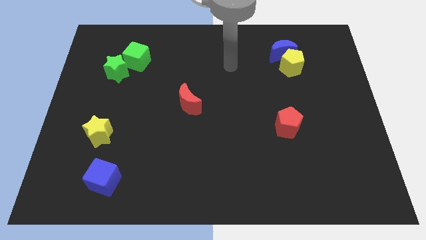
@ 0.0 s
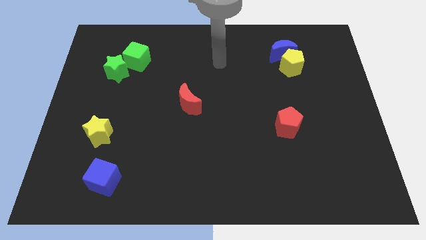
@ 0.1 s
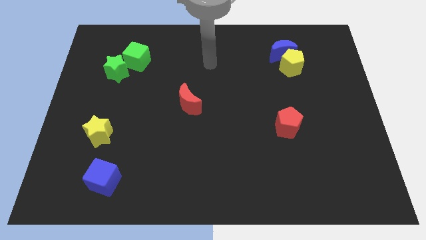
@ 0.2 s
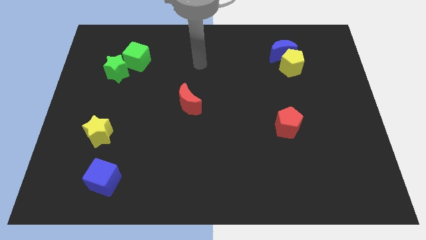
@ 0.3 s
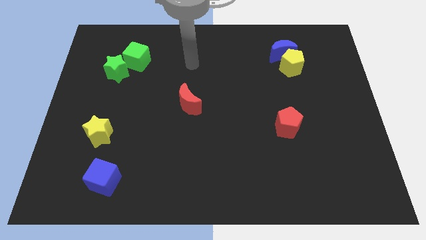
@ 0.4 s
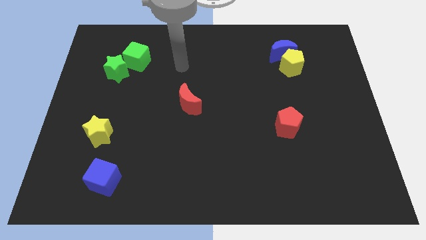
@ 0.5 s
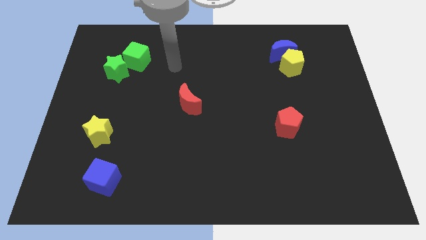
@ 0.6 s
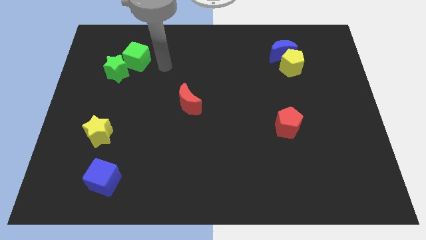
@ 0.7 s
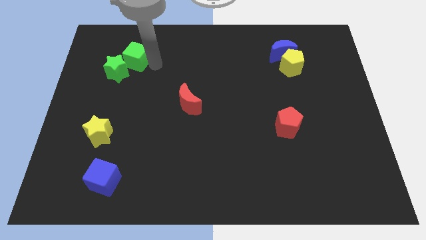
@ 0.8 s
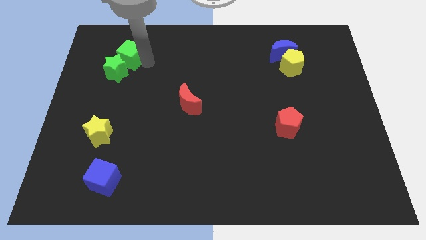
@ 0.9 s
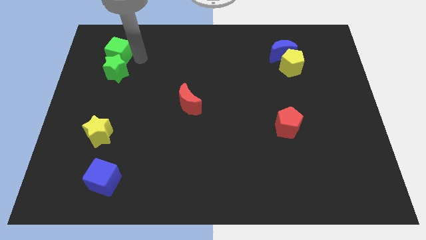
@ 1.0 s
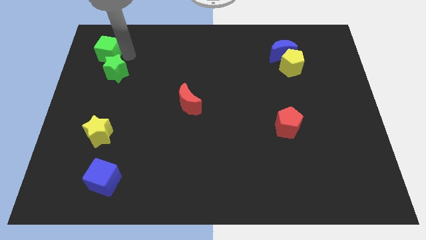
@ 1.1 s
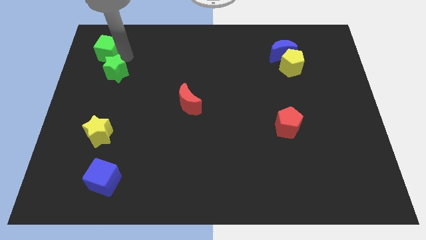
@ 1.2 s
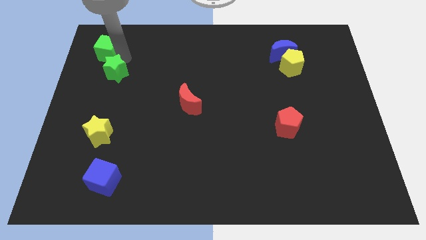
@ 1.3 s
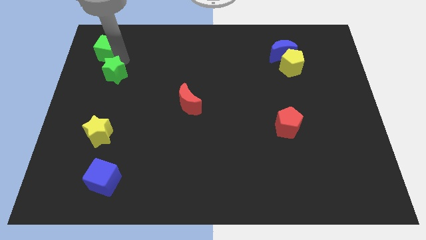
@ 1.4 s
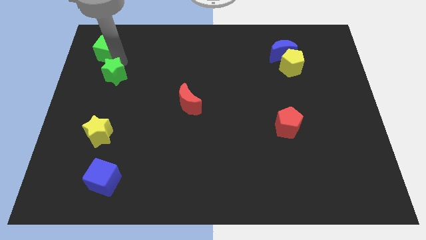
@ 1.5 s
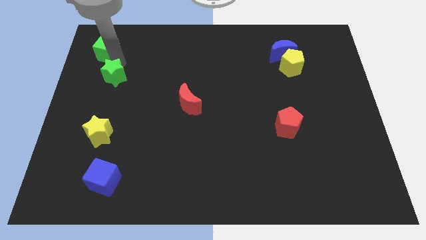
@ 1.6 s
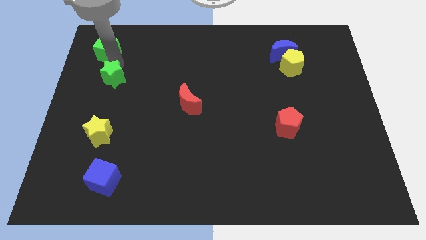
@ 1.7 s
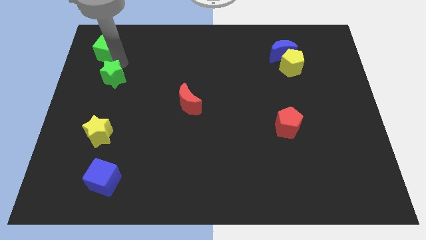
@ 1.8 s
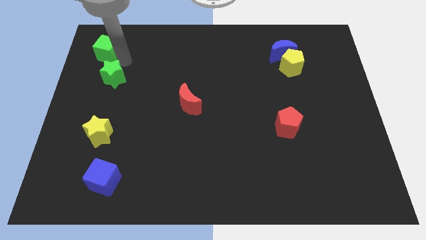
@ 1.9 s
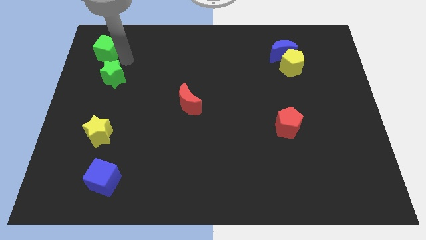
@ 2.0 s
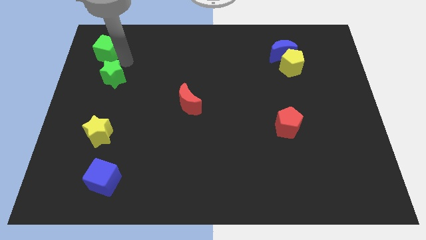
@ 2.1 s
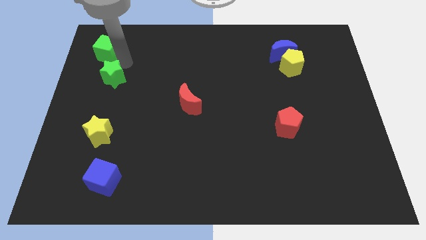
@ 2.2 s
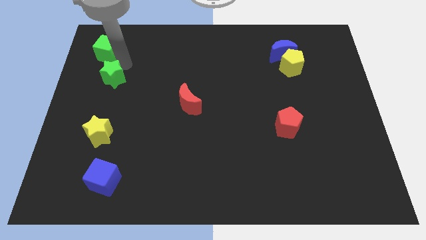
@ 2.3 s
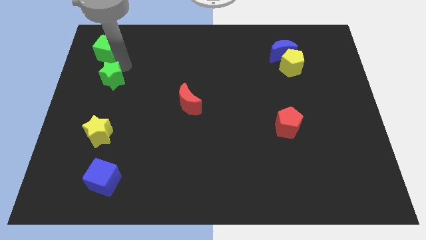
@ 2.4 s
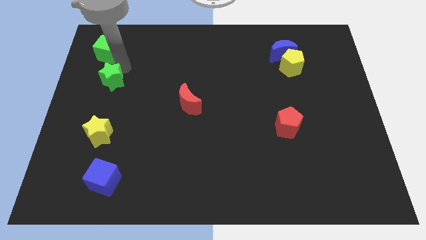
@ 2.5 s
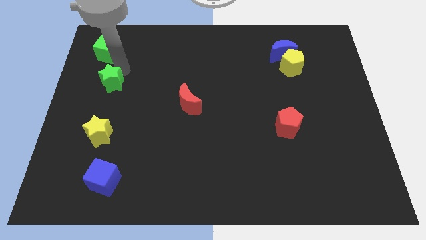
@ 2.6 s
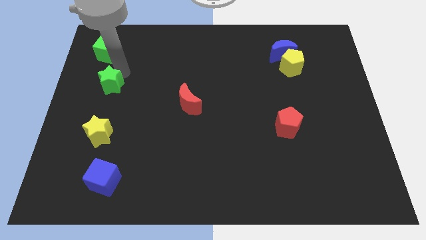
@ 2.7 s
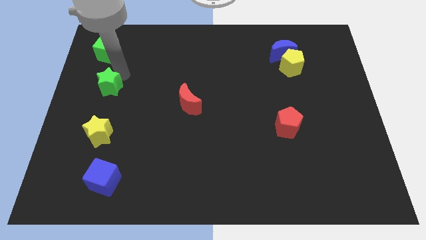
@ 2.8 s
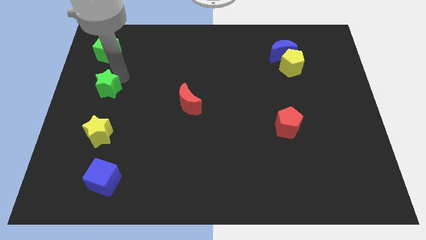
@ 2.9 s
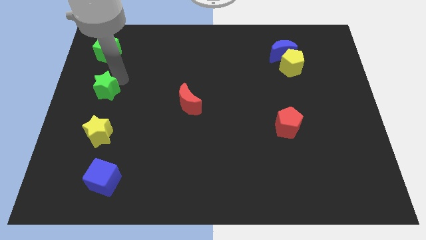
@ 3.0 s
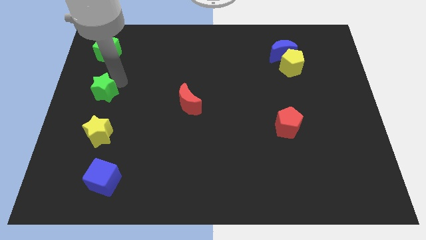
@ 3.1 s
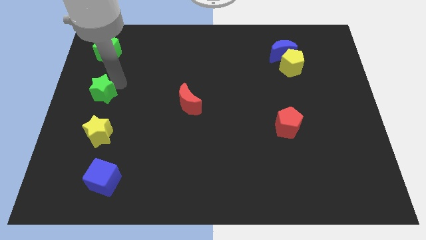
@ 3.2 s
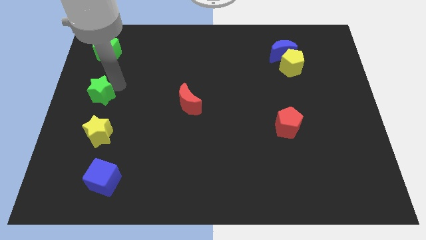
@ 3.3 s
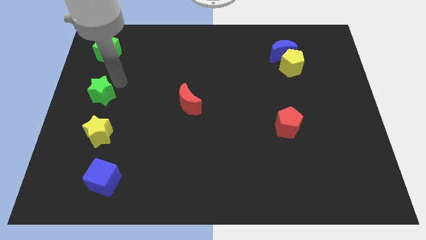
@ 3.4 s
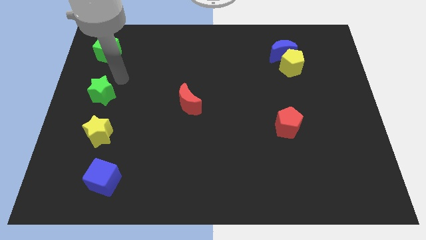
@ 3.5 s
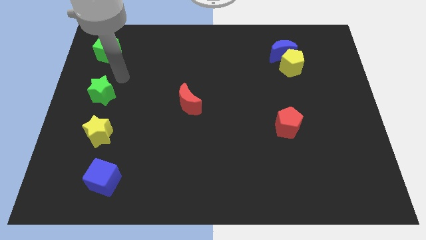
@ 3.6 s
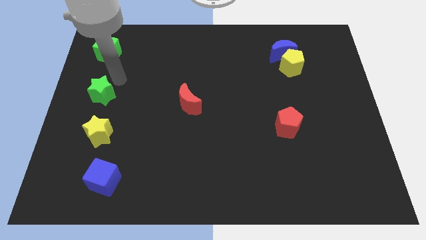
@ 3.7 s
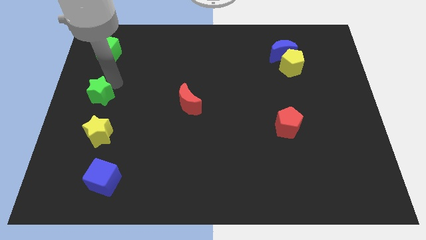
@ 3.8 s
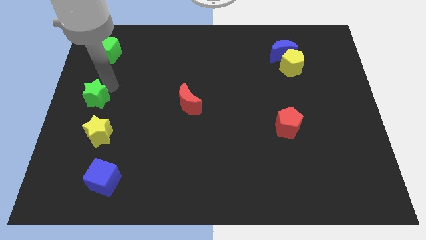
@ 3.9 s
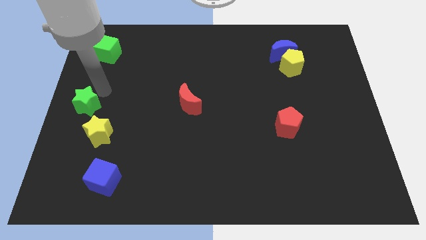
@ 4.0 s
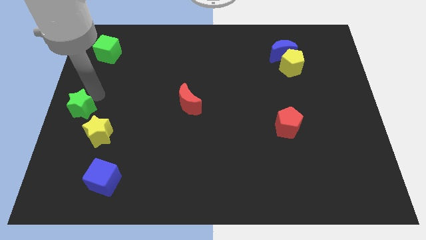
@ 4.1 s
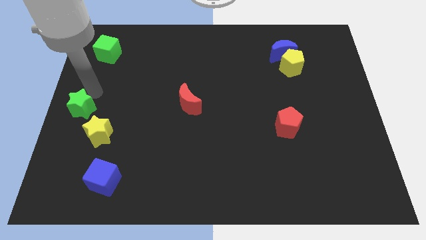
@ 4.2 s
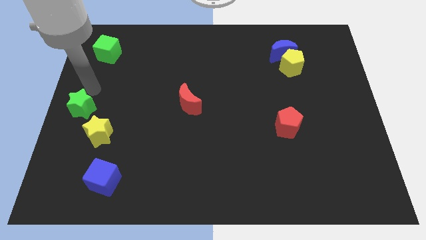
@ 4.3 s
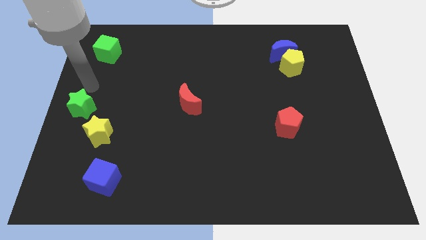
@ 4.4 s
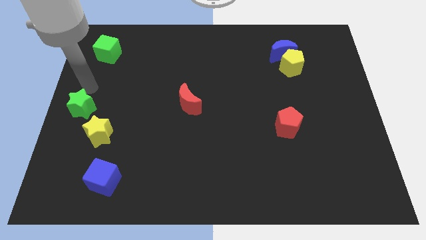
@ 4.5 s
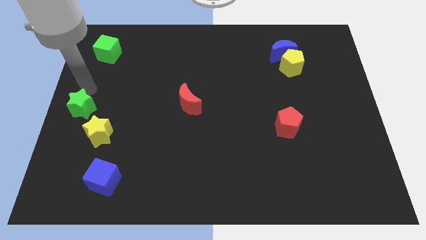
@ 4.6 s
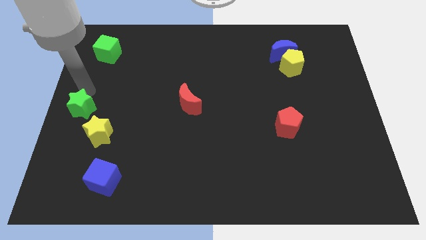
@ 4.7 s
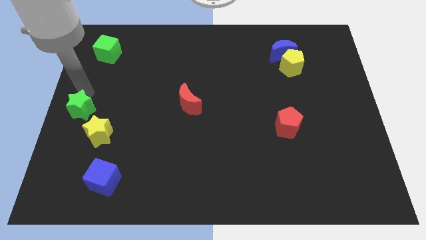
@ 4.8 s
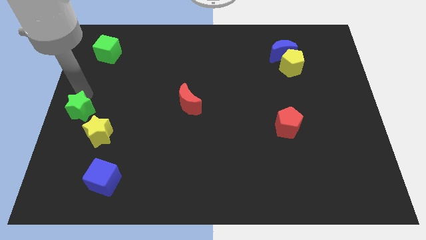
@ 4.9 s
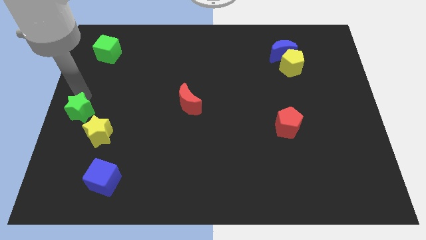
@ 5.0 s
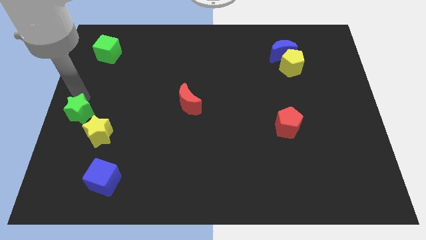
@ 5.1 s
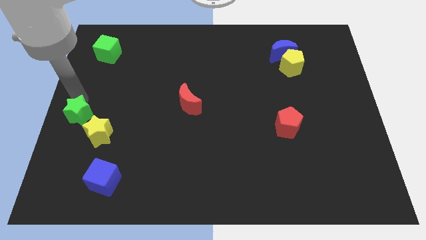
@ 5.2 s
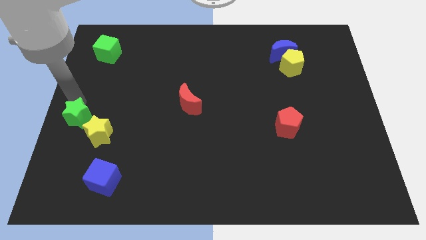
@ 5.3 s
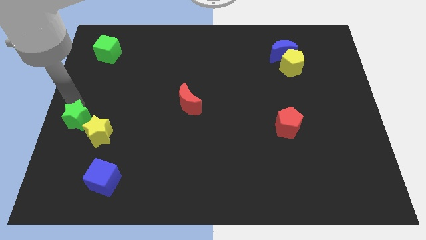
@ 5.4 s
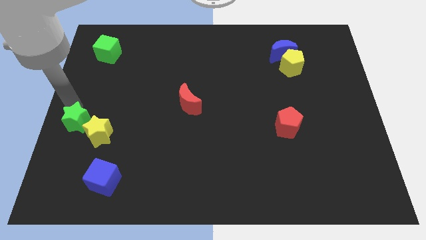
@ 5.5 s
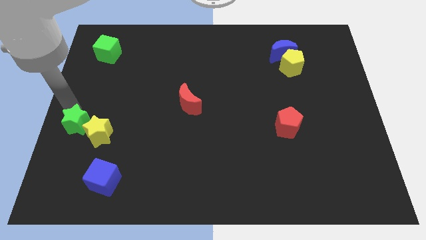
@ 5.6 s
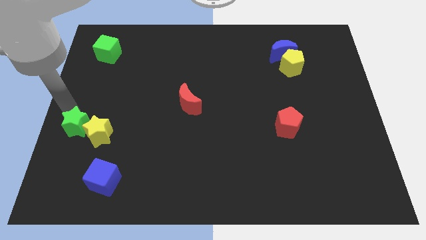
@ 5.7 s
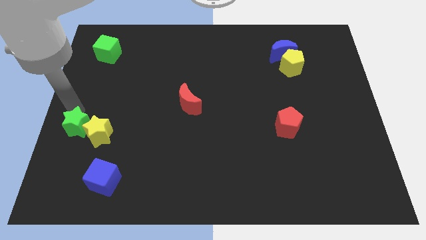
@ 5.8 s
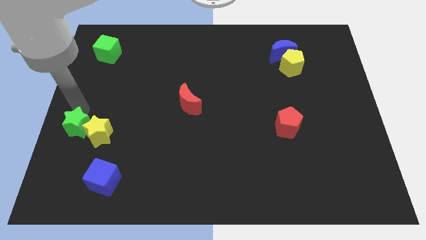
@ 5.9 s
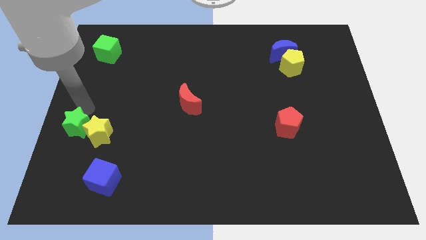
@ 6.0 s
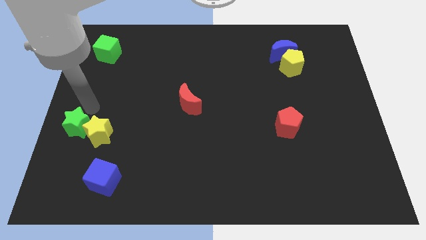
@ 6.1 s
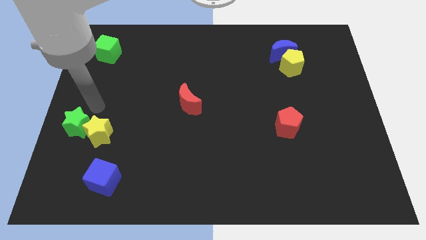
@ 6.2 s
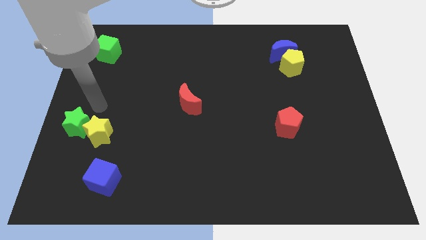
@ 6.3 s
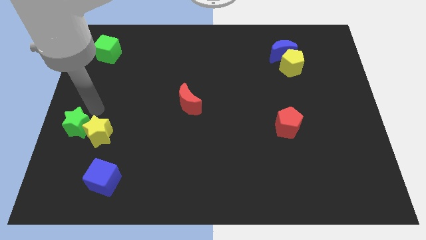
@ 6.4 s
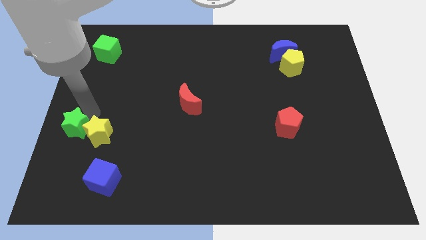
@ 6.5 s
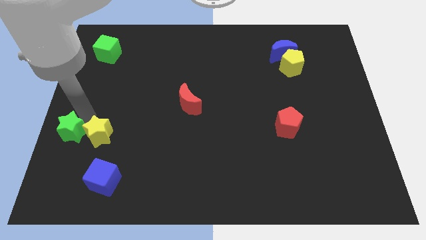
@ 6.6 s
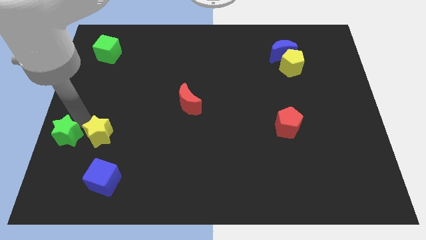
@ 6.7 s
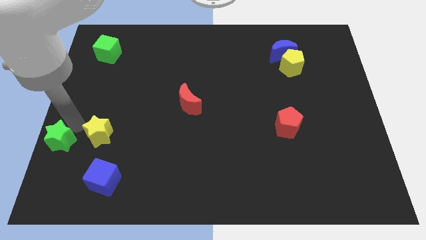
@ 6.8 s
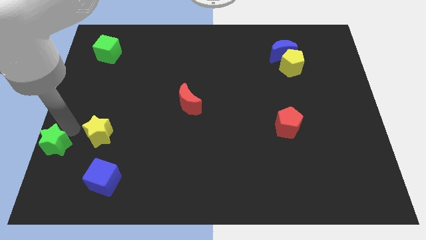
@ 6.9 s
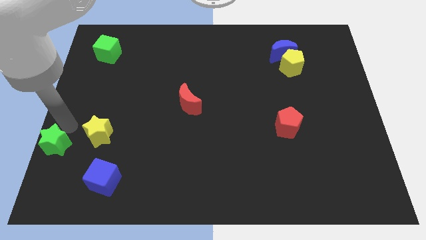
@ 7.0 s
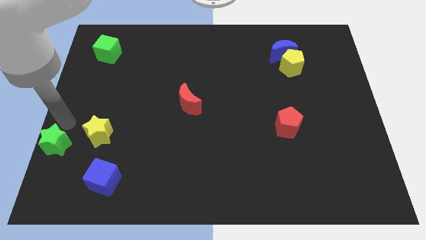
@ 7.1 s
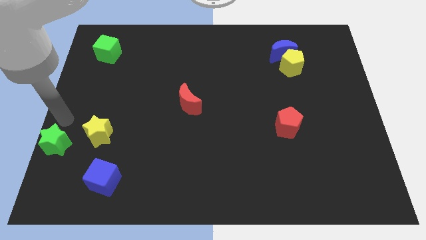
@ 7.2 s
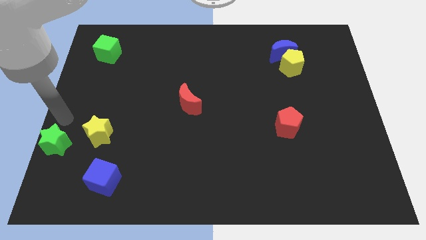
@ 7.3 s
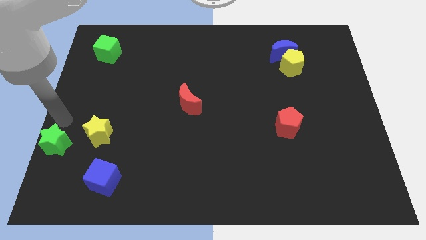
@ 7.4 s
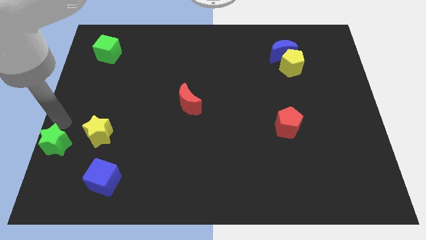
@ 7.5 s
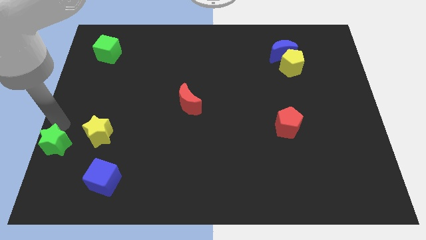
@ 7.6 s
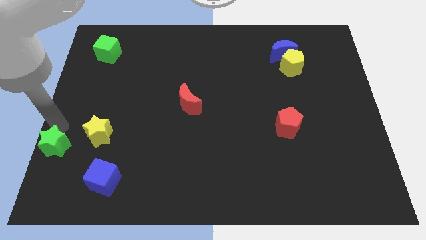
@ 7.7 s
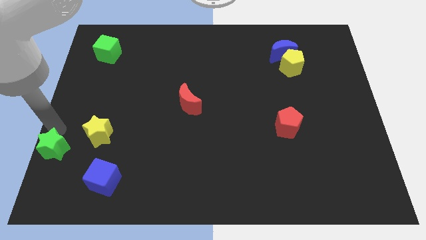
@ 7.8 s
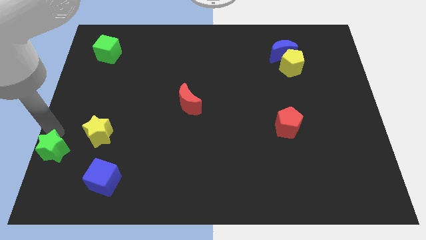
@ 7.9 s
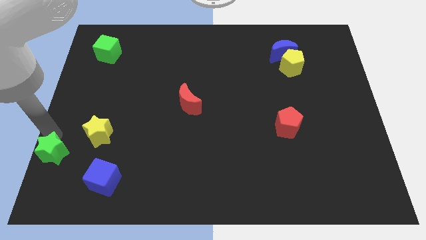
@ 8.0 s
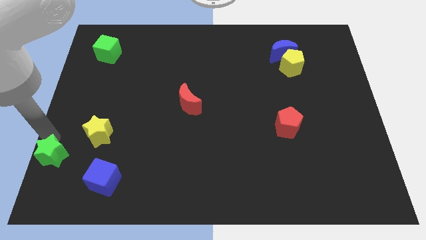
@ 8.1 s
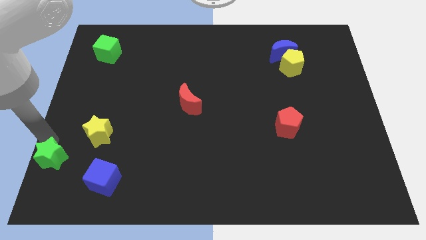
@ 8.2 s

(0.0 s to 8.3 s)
slide the green star to the bottom left
